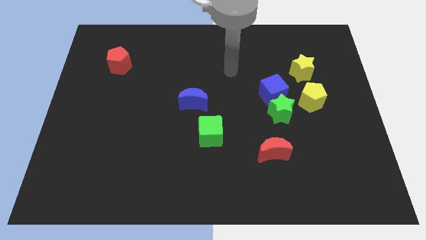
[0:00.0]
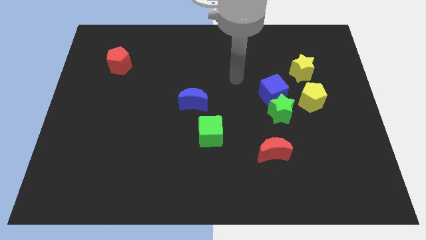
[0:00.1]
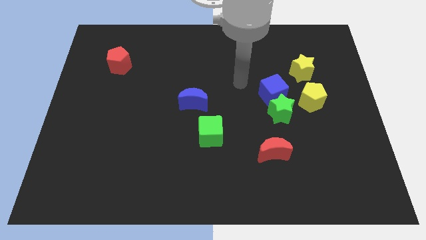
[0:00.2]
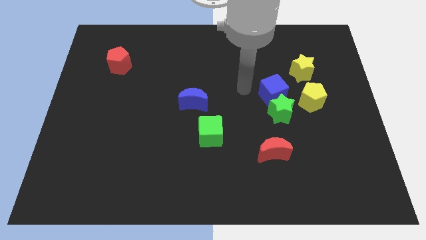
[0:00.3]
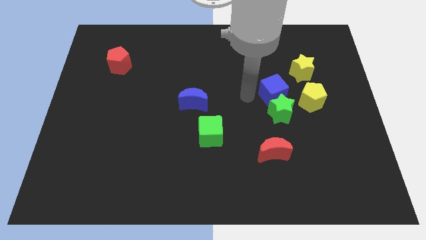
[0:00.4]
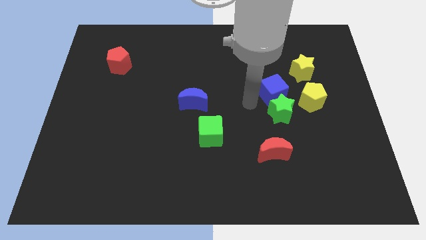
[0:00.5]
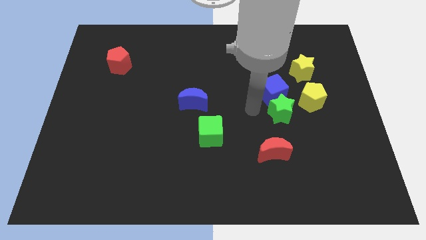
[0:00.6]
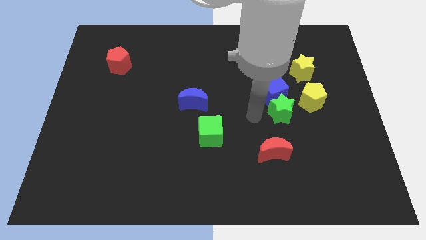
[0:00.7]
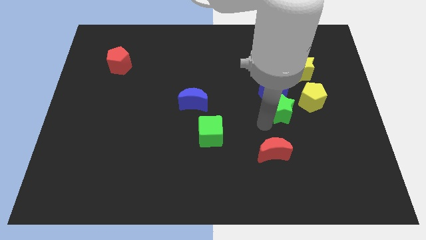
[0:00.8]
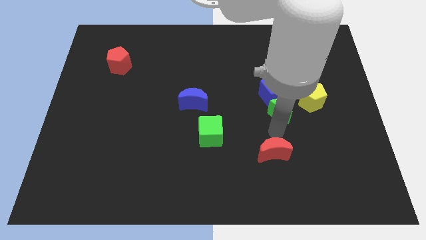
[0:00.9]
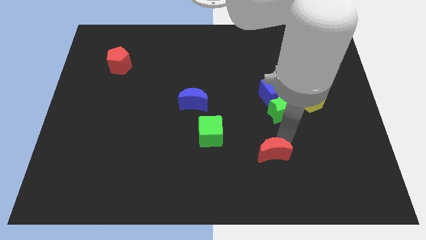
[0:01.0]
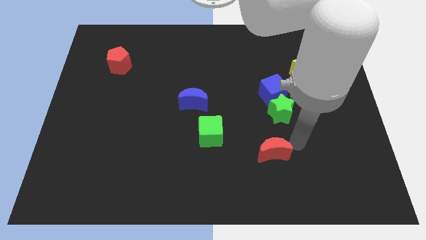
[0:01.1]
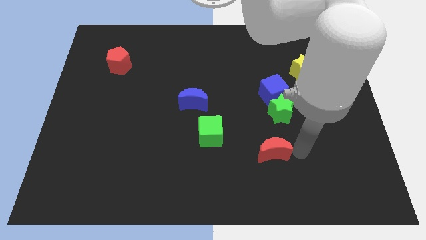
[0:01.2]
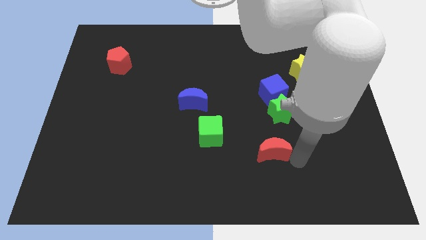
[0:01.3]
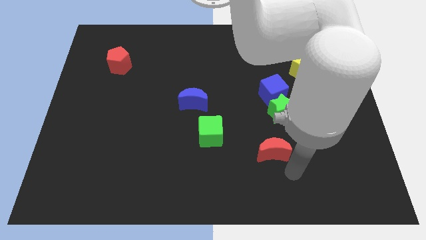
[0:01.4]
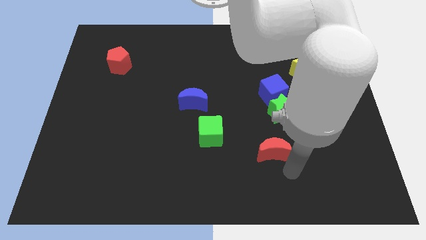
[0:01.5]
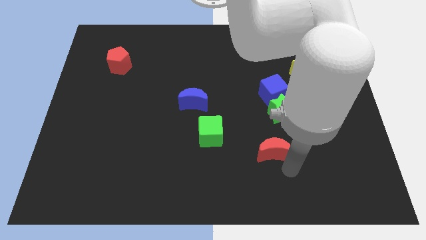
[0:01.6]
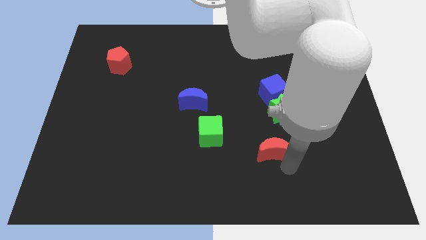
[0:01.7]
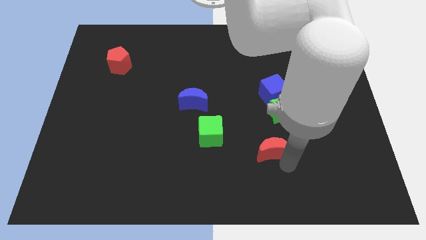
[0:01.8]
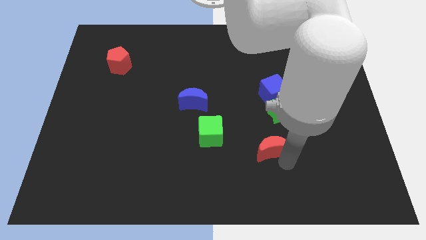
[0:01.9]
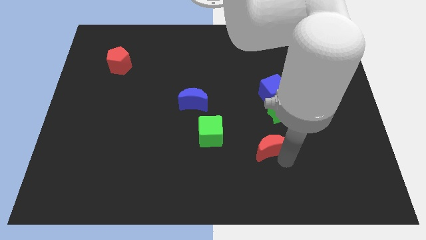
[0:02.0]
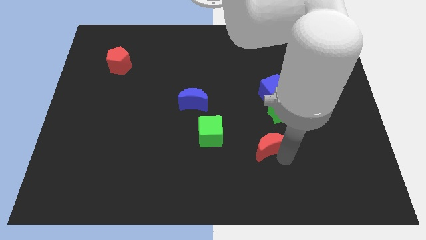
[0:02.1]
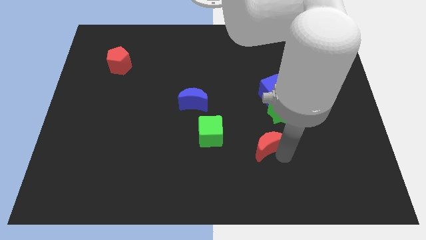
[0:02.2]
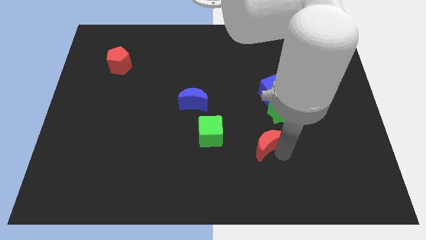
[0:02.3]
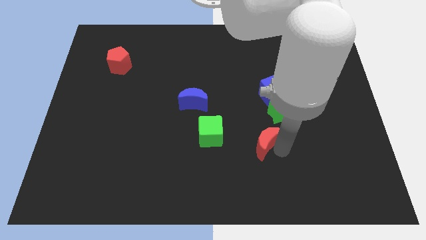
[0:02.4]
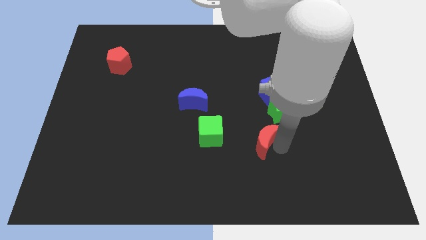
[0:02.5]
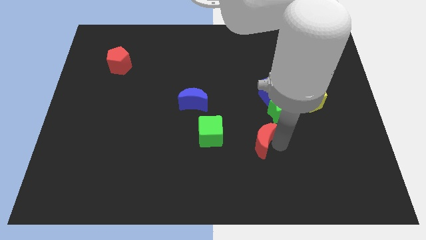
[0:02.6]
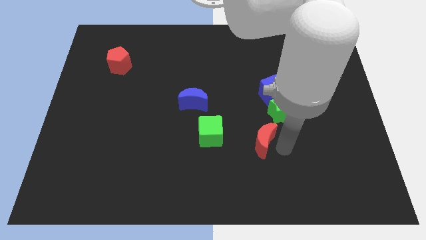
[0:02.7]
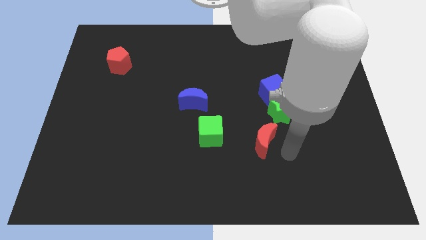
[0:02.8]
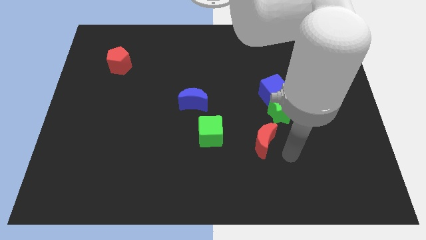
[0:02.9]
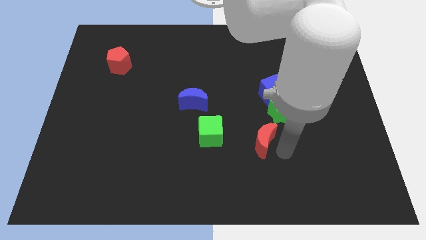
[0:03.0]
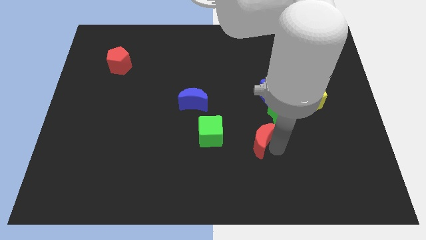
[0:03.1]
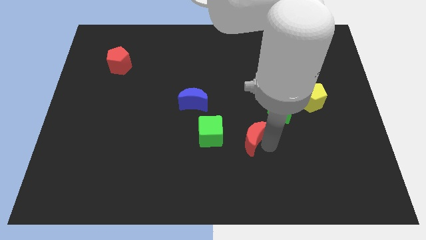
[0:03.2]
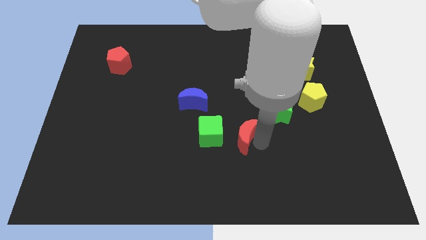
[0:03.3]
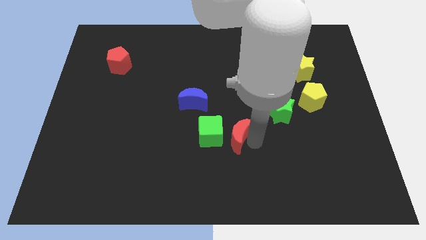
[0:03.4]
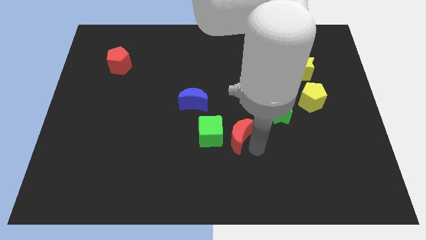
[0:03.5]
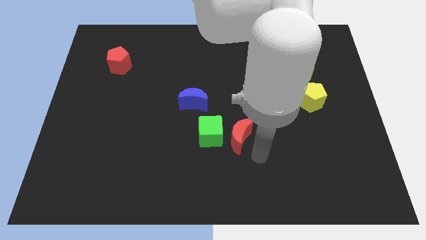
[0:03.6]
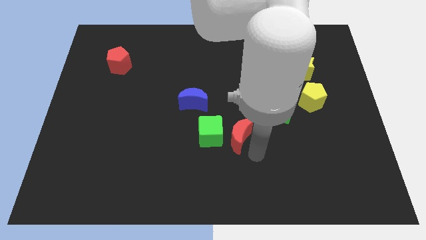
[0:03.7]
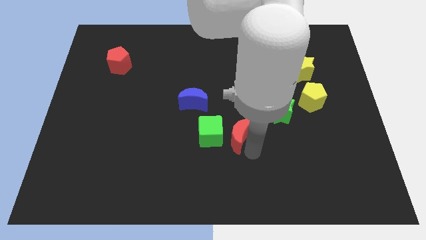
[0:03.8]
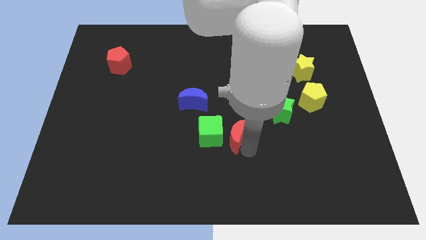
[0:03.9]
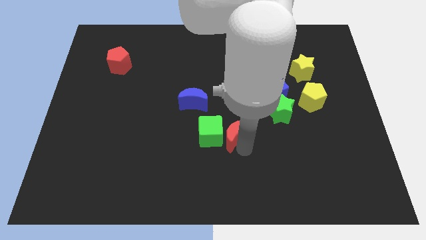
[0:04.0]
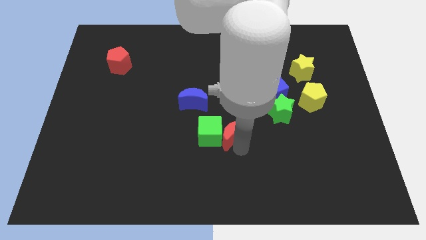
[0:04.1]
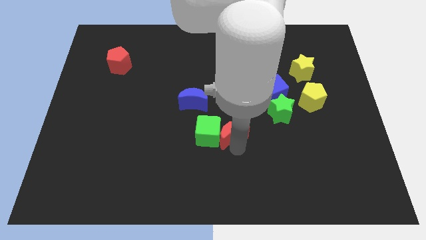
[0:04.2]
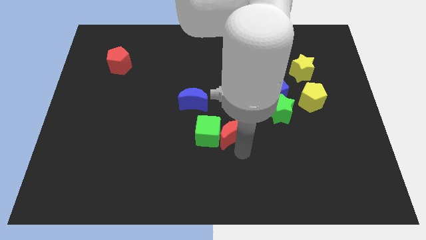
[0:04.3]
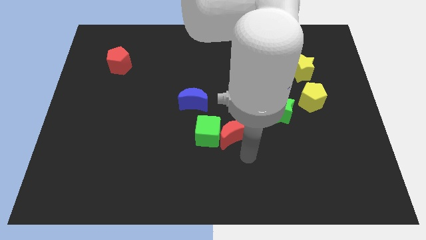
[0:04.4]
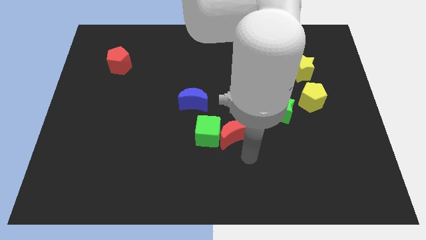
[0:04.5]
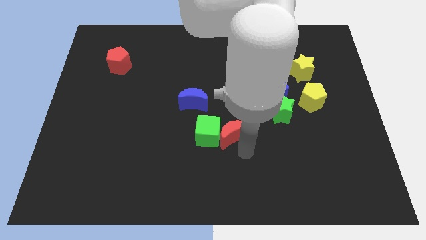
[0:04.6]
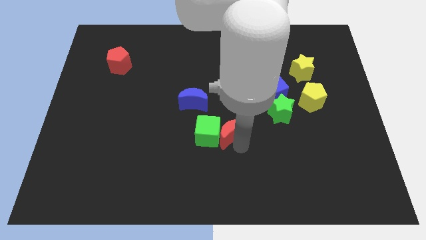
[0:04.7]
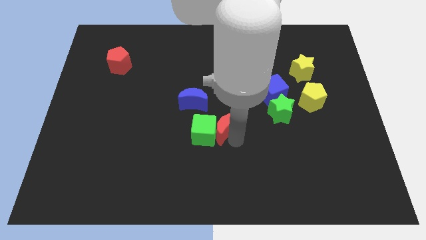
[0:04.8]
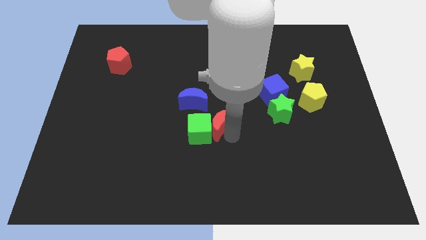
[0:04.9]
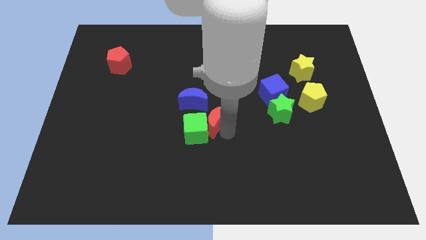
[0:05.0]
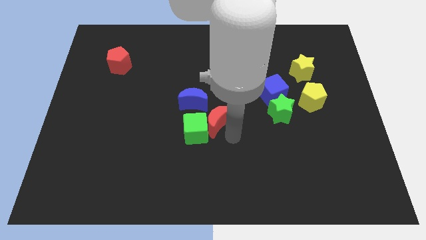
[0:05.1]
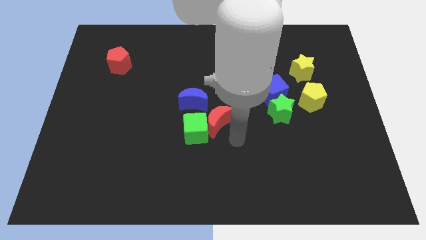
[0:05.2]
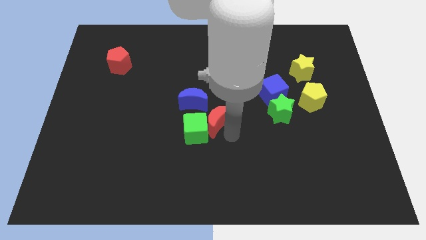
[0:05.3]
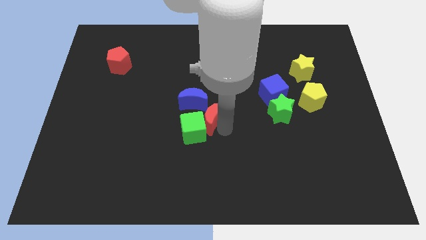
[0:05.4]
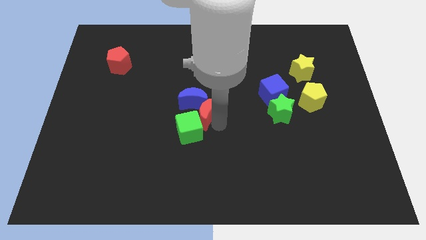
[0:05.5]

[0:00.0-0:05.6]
put the red moon towards the blue moon

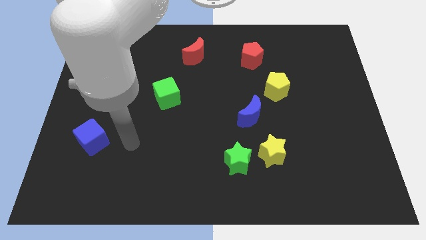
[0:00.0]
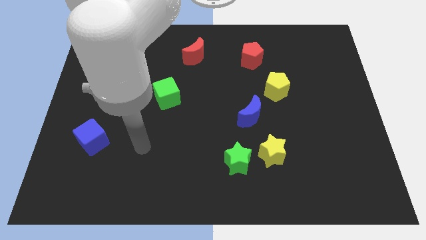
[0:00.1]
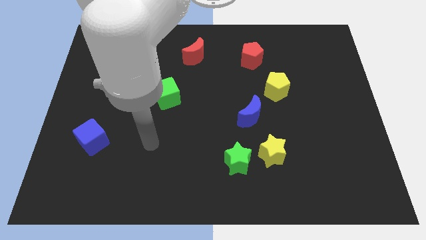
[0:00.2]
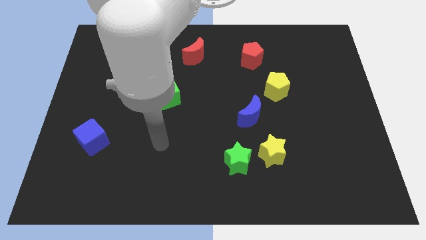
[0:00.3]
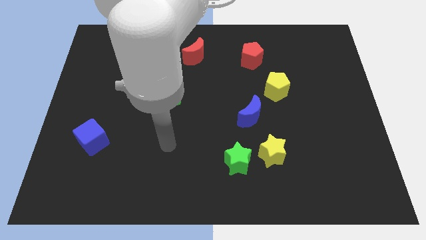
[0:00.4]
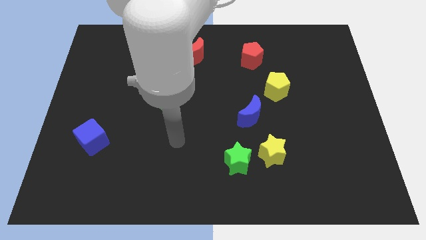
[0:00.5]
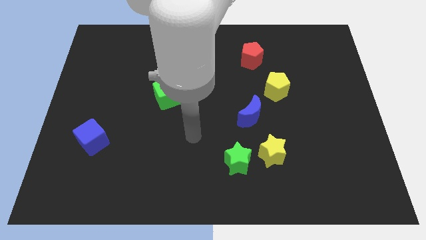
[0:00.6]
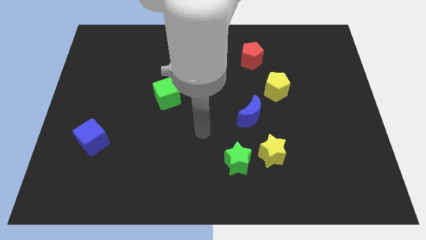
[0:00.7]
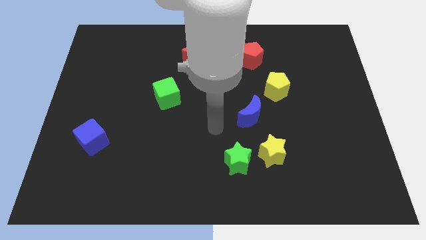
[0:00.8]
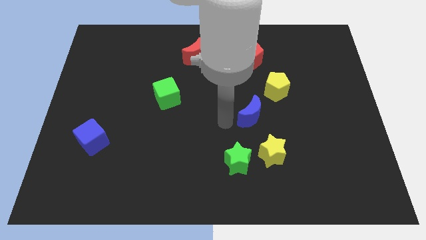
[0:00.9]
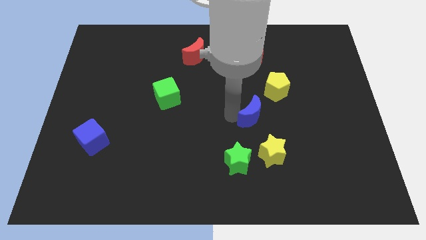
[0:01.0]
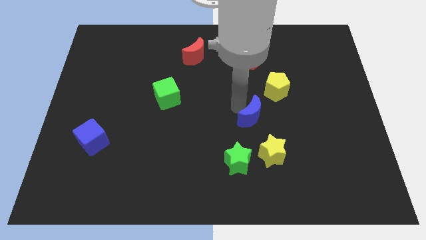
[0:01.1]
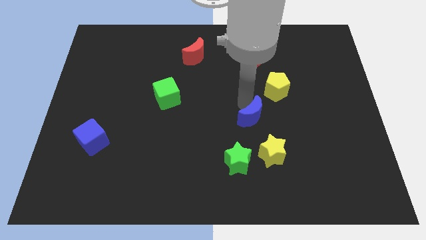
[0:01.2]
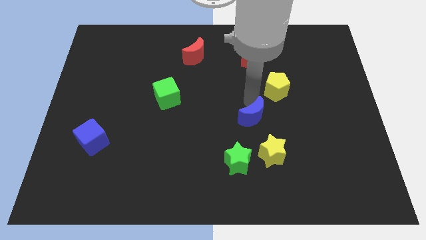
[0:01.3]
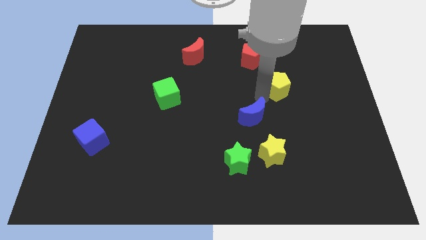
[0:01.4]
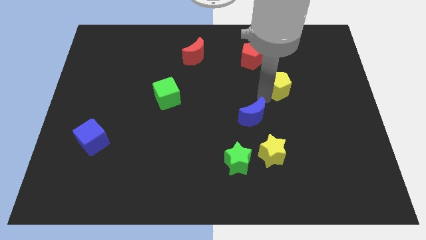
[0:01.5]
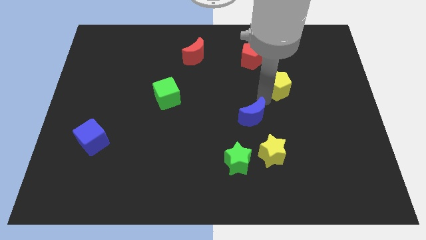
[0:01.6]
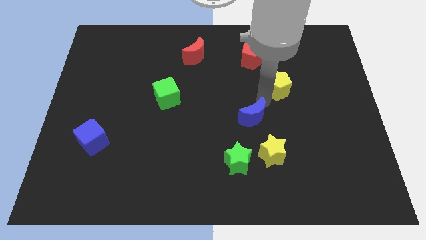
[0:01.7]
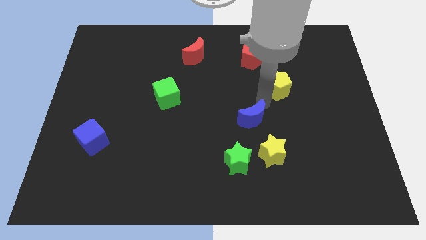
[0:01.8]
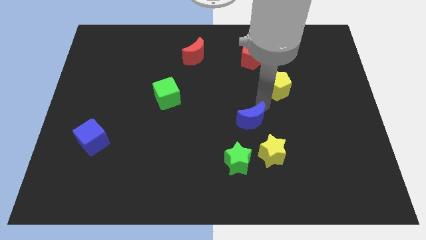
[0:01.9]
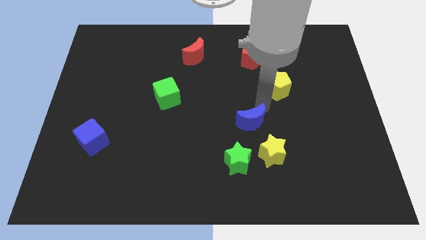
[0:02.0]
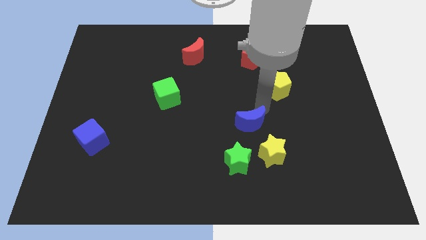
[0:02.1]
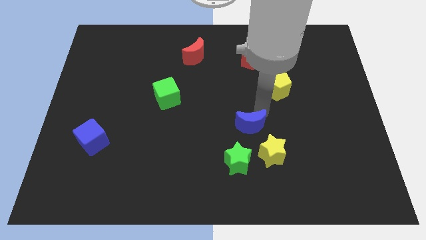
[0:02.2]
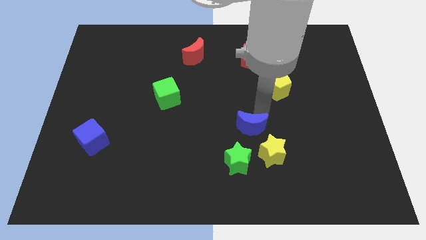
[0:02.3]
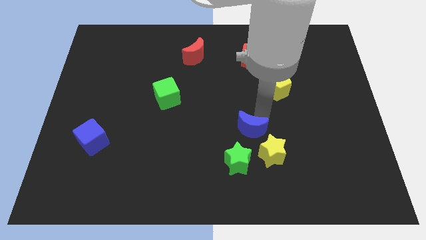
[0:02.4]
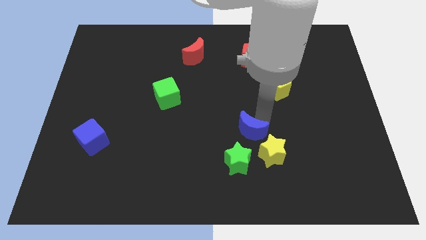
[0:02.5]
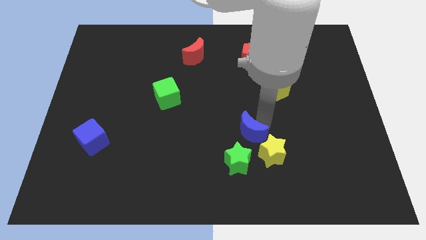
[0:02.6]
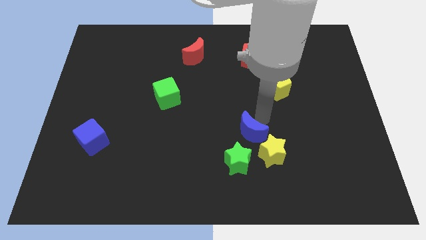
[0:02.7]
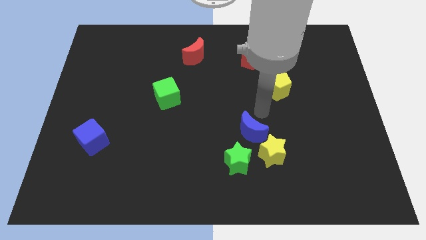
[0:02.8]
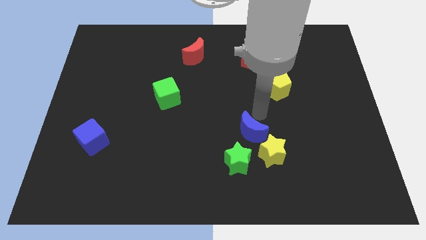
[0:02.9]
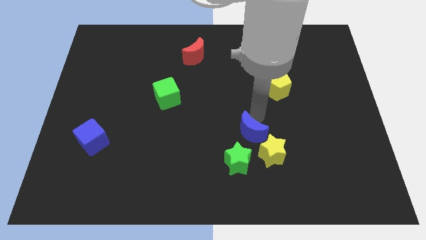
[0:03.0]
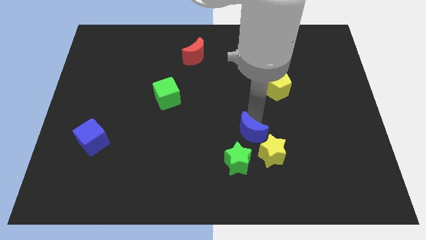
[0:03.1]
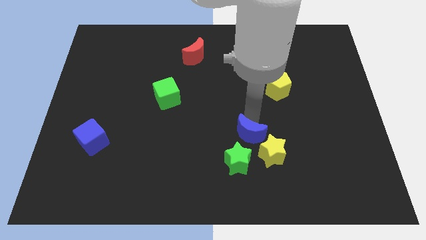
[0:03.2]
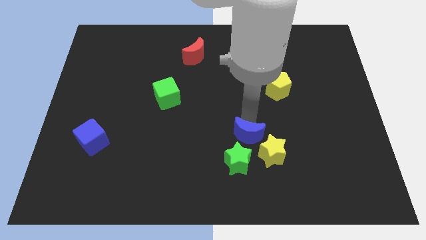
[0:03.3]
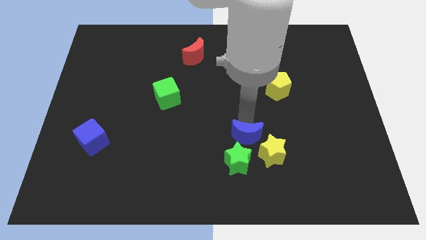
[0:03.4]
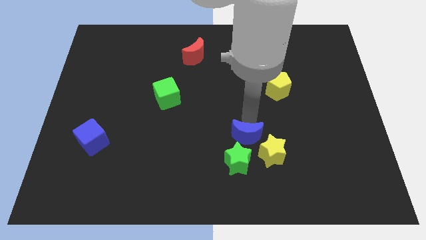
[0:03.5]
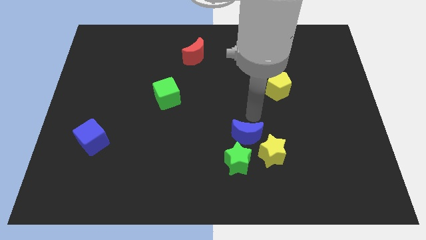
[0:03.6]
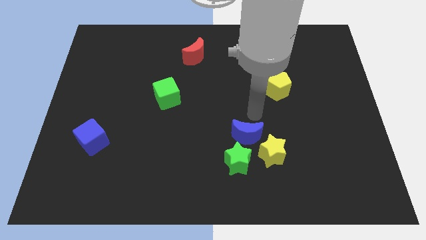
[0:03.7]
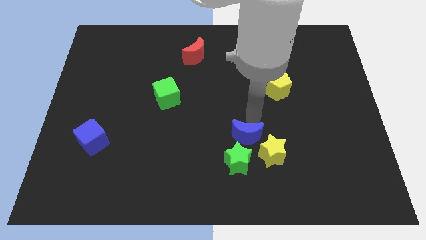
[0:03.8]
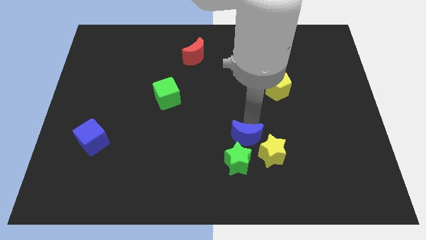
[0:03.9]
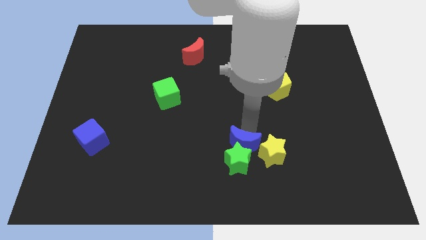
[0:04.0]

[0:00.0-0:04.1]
push the blue moon to the green star
